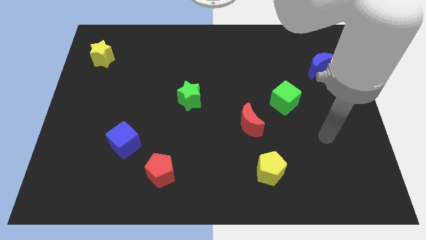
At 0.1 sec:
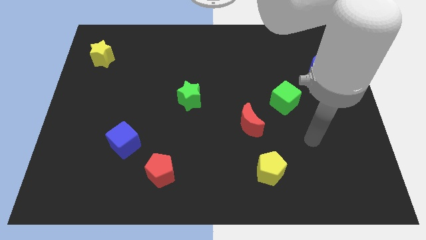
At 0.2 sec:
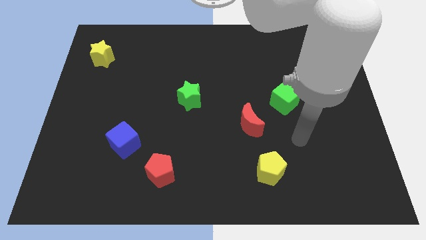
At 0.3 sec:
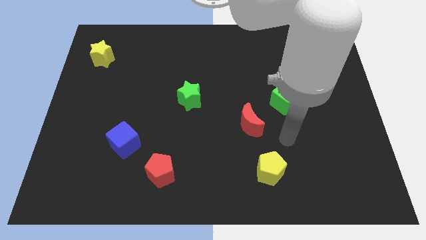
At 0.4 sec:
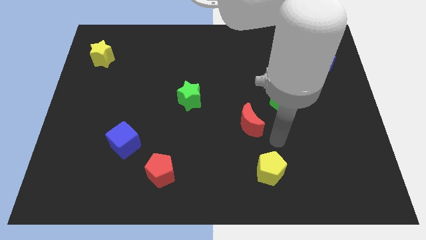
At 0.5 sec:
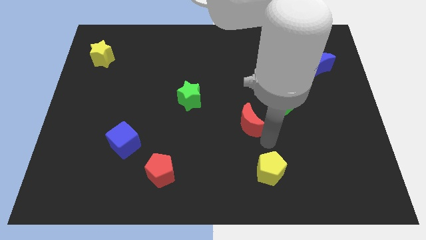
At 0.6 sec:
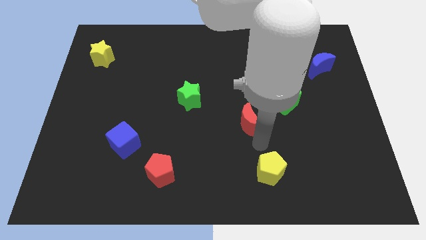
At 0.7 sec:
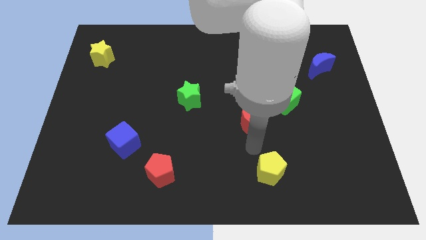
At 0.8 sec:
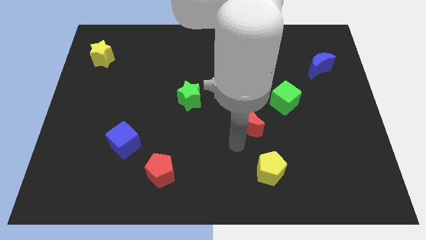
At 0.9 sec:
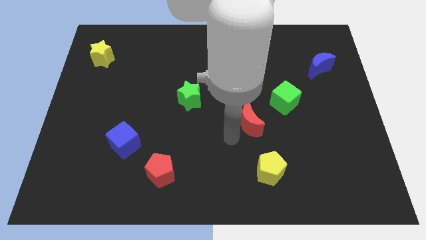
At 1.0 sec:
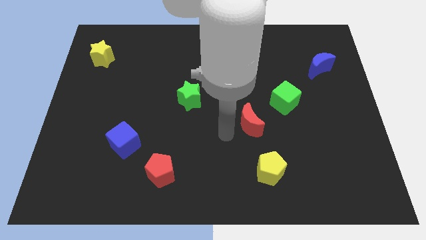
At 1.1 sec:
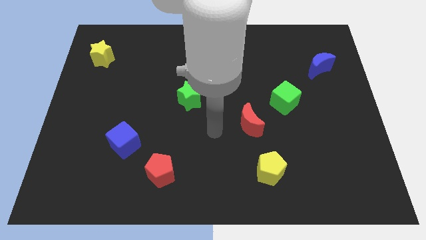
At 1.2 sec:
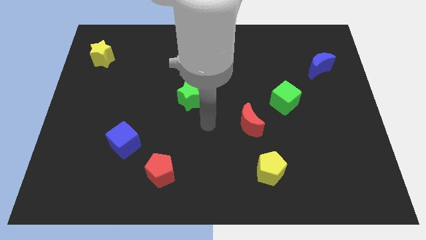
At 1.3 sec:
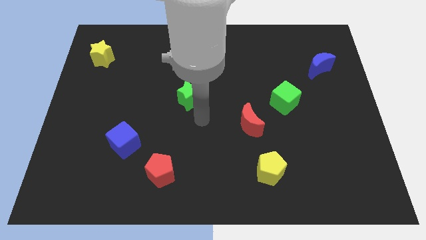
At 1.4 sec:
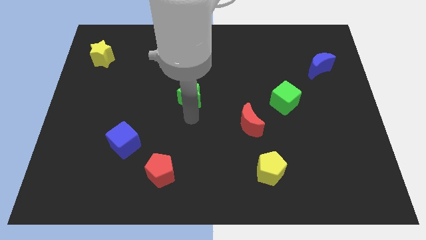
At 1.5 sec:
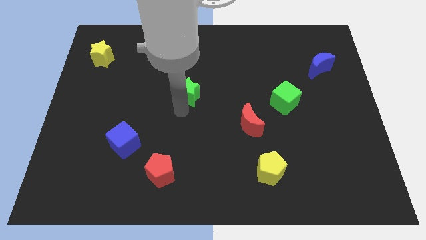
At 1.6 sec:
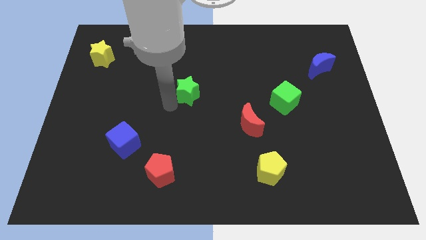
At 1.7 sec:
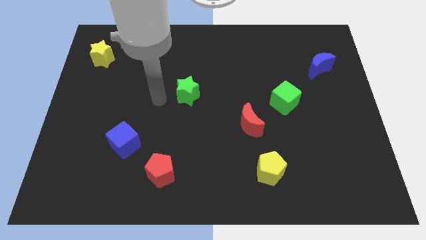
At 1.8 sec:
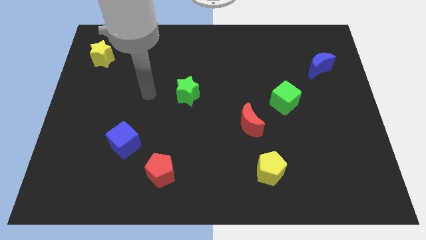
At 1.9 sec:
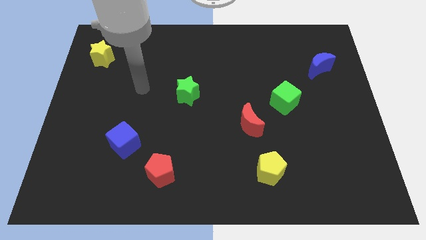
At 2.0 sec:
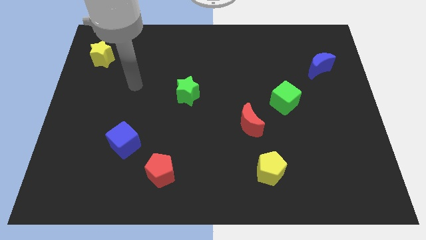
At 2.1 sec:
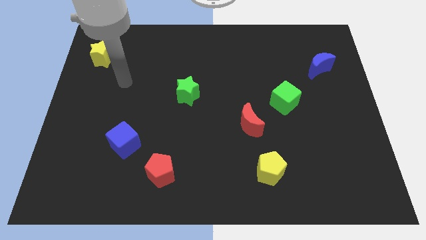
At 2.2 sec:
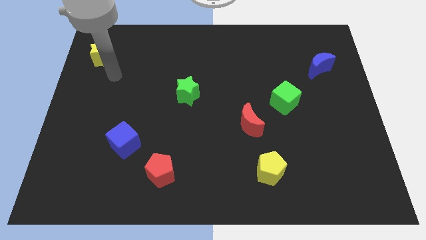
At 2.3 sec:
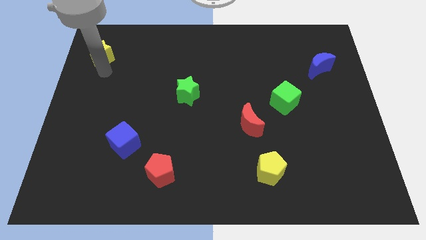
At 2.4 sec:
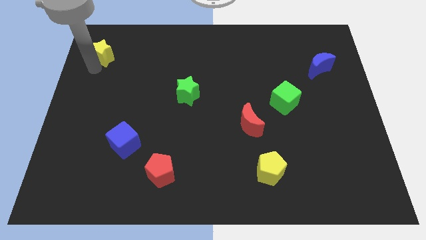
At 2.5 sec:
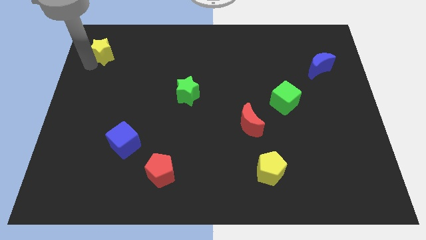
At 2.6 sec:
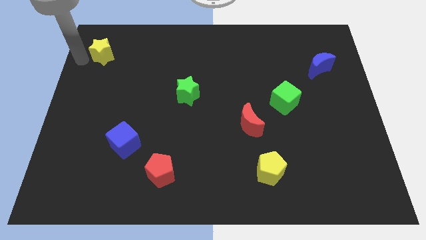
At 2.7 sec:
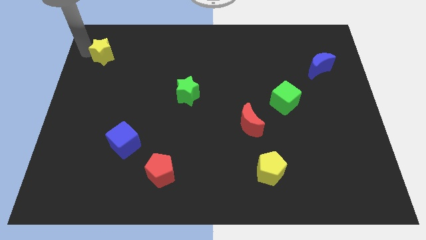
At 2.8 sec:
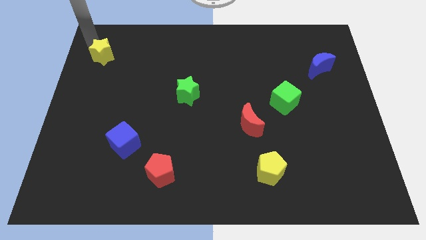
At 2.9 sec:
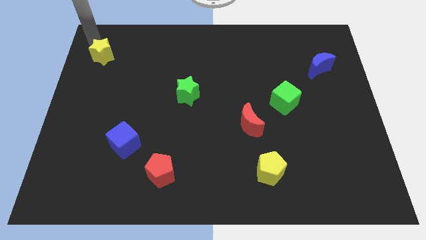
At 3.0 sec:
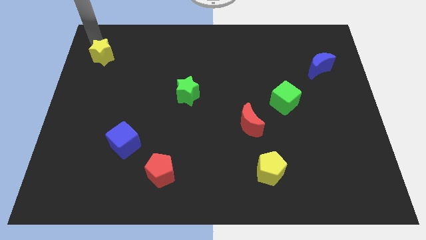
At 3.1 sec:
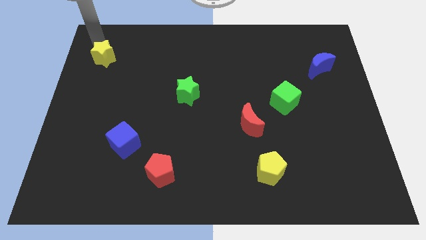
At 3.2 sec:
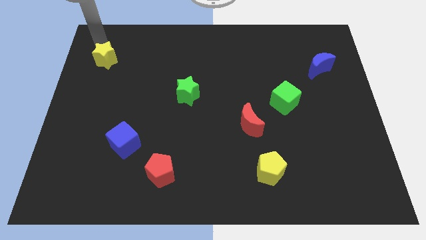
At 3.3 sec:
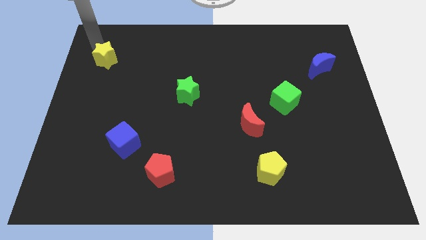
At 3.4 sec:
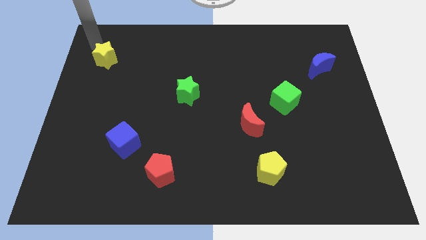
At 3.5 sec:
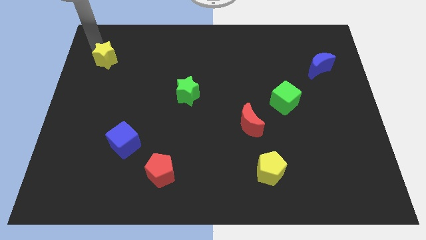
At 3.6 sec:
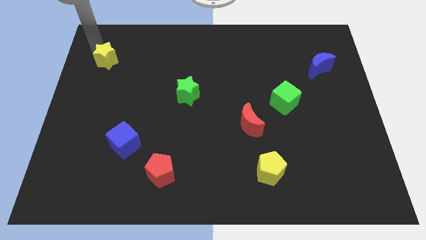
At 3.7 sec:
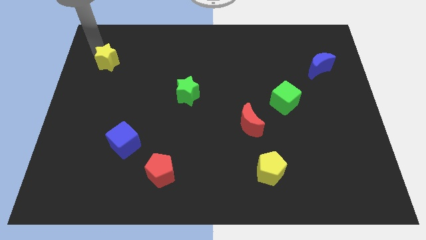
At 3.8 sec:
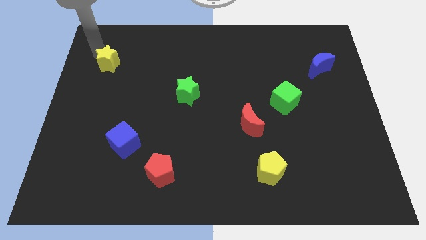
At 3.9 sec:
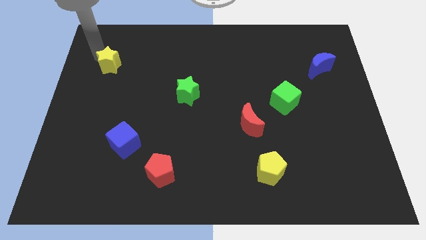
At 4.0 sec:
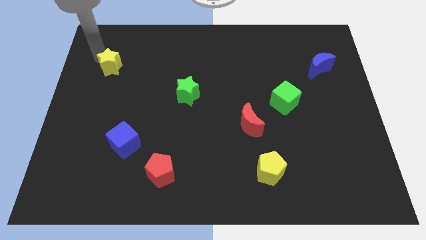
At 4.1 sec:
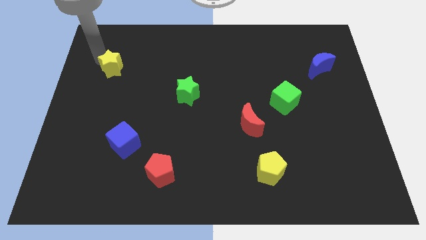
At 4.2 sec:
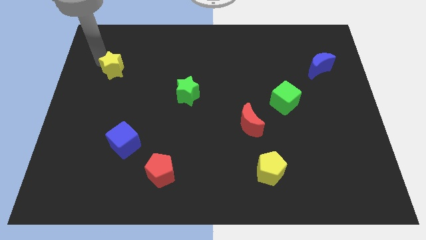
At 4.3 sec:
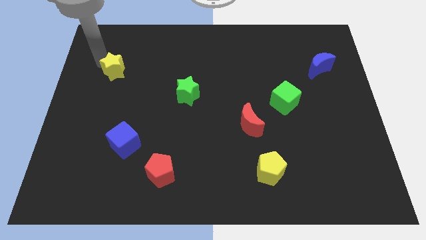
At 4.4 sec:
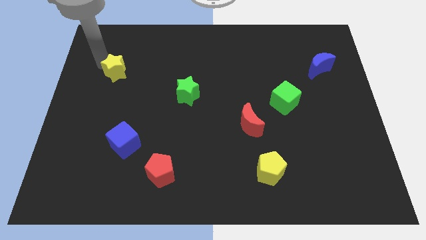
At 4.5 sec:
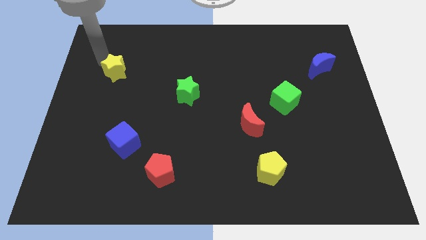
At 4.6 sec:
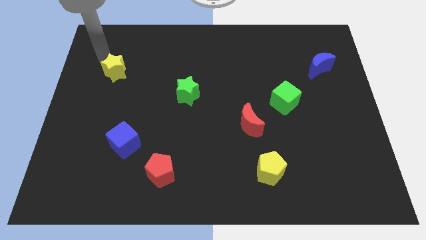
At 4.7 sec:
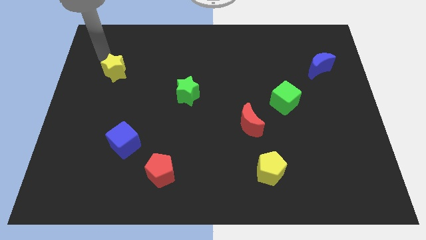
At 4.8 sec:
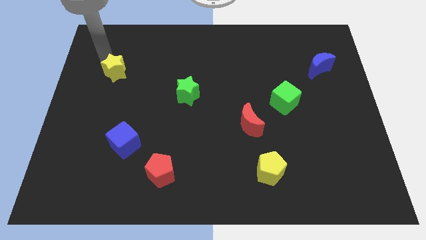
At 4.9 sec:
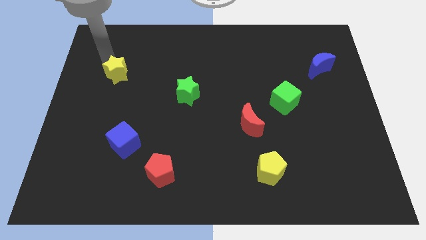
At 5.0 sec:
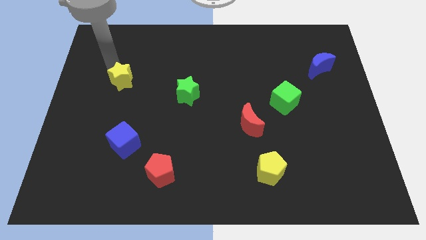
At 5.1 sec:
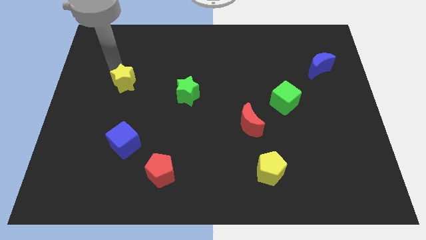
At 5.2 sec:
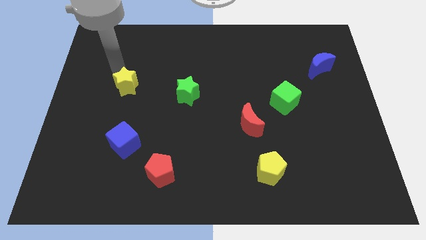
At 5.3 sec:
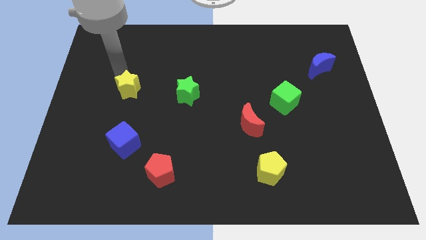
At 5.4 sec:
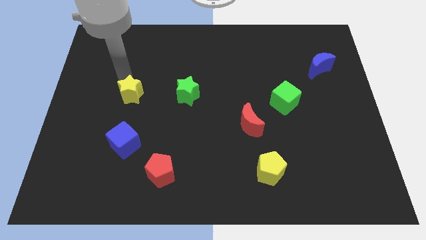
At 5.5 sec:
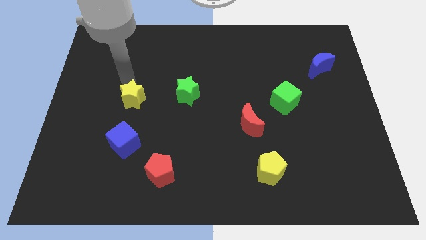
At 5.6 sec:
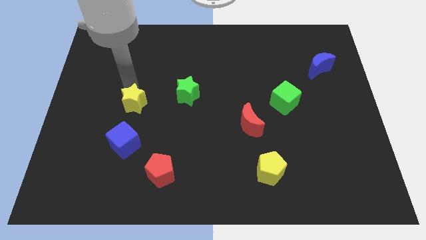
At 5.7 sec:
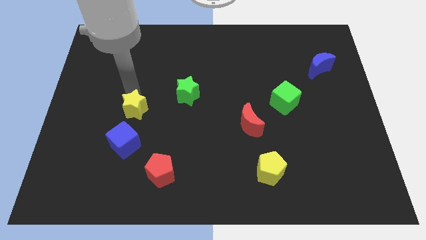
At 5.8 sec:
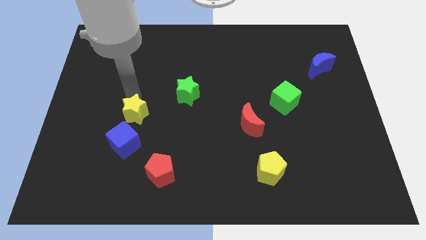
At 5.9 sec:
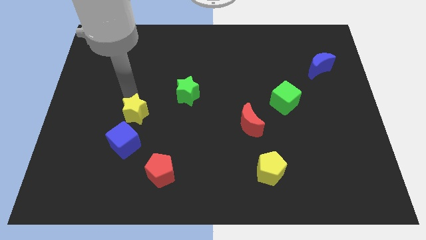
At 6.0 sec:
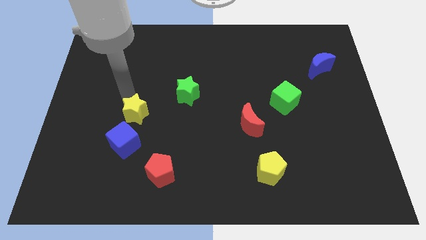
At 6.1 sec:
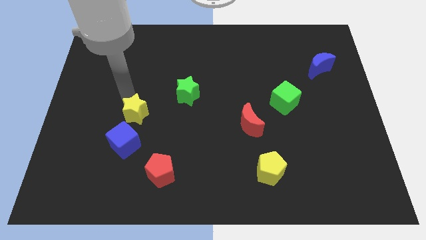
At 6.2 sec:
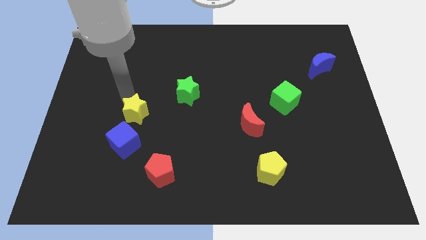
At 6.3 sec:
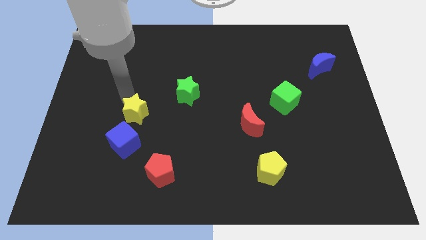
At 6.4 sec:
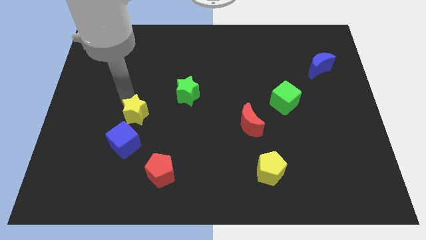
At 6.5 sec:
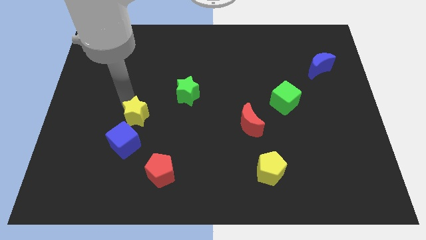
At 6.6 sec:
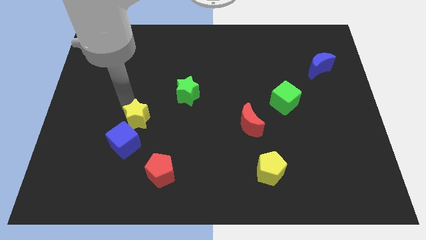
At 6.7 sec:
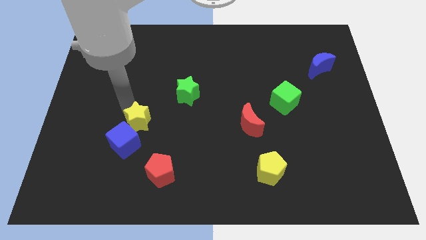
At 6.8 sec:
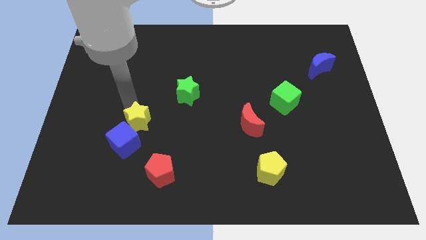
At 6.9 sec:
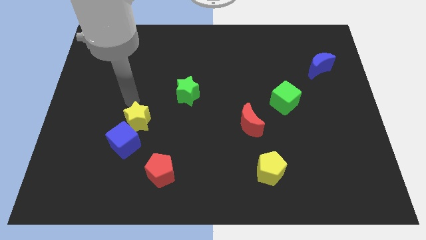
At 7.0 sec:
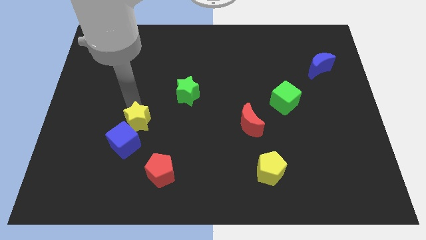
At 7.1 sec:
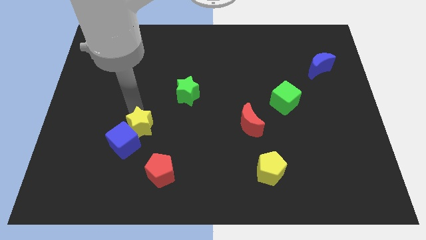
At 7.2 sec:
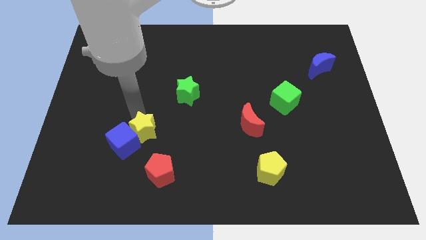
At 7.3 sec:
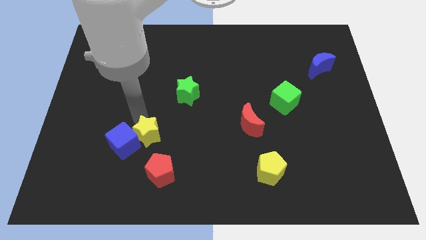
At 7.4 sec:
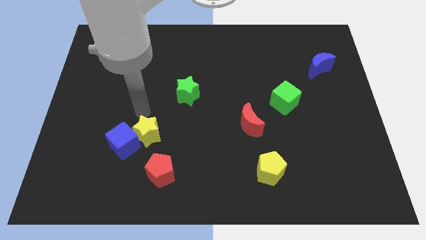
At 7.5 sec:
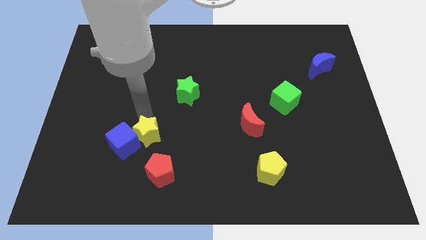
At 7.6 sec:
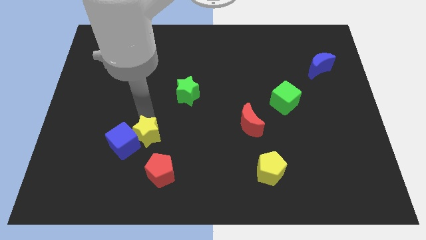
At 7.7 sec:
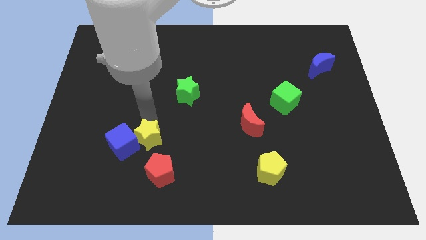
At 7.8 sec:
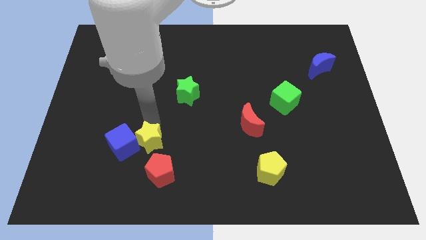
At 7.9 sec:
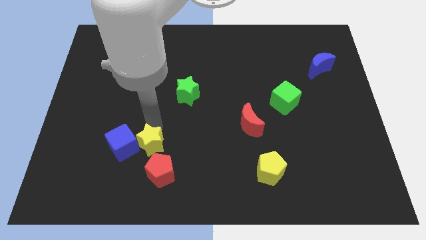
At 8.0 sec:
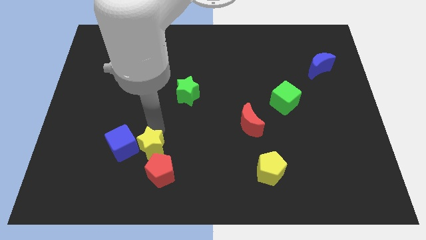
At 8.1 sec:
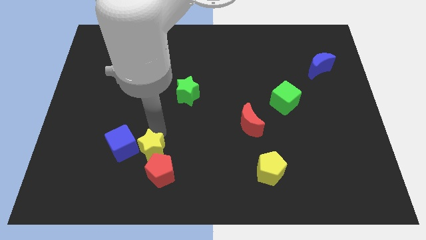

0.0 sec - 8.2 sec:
slide the yellow star towards the red pentagon
